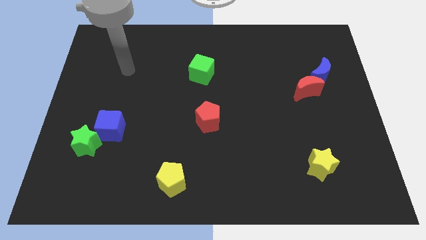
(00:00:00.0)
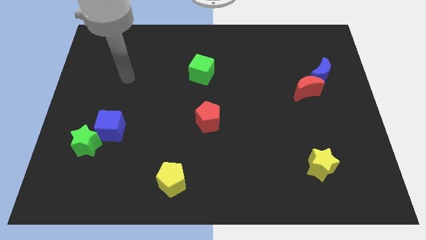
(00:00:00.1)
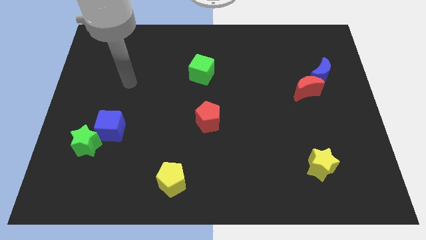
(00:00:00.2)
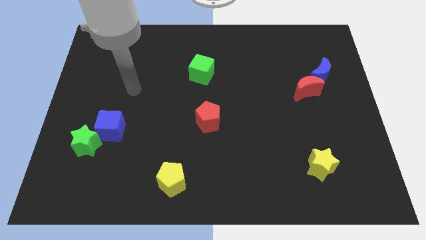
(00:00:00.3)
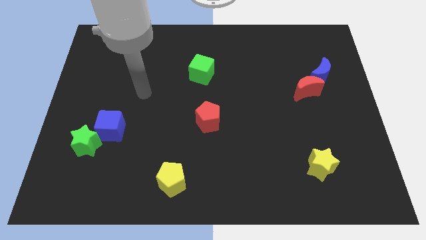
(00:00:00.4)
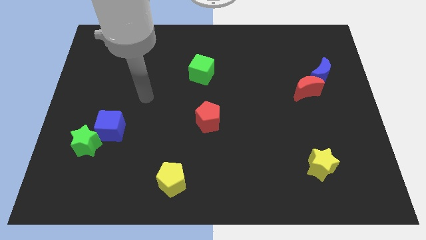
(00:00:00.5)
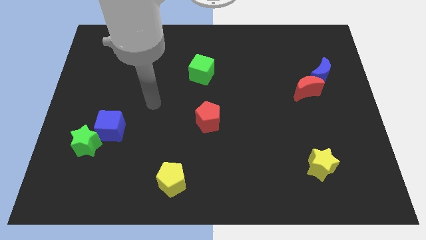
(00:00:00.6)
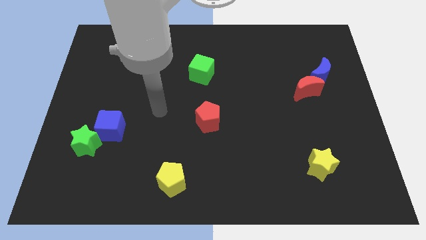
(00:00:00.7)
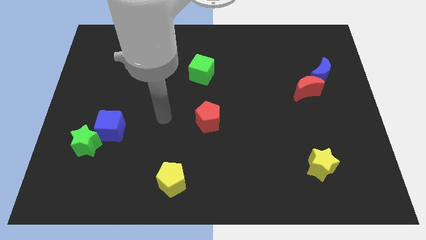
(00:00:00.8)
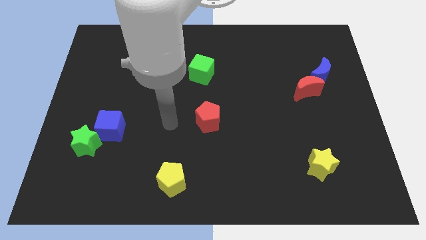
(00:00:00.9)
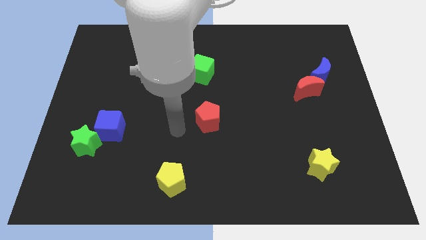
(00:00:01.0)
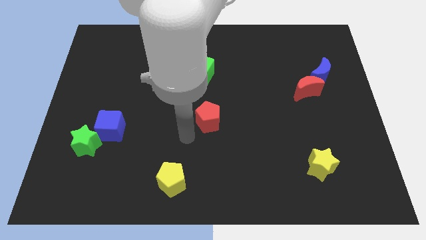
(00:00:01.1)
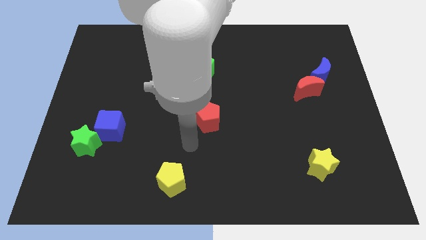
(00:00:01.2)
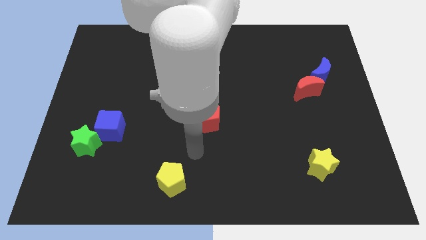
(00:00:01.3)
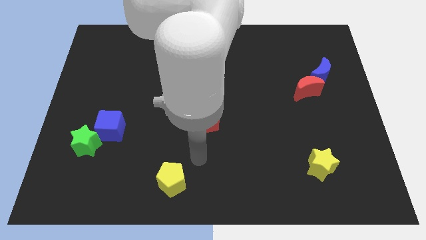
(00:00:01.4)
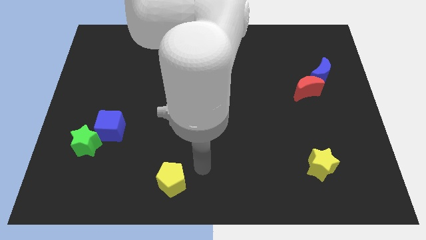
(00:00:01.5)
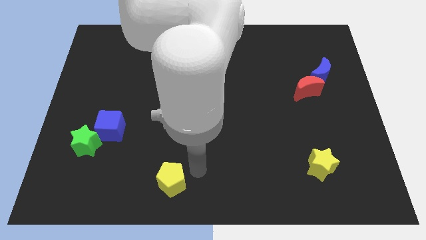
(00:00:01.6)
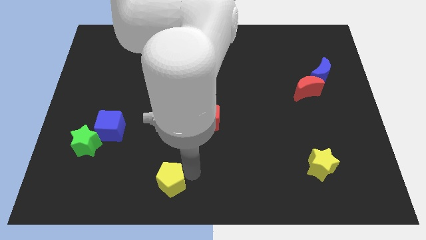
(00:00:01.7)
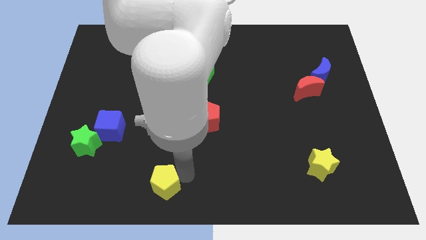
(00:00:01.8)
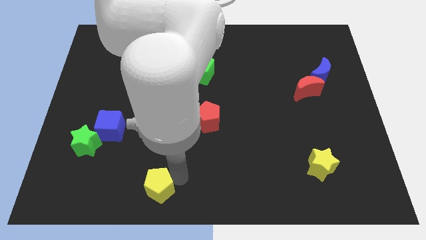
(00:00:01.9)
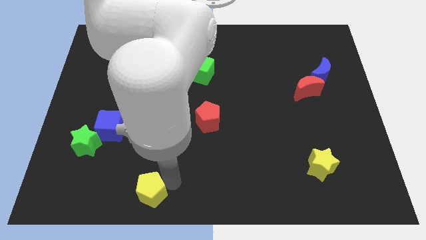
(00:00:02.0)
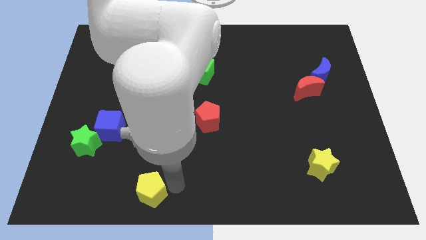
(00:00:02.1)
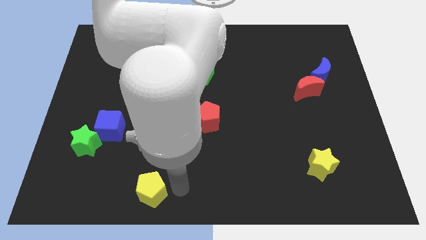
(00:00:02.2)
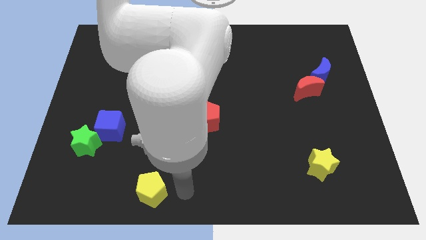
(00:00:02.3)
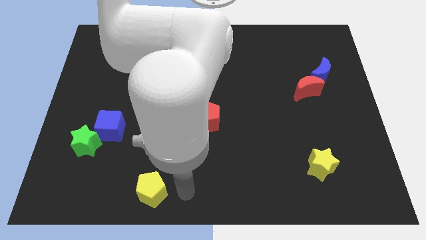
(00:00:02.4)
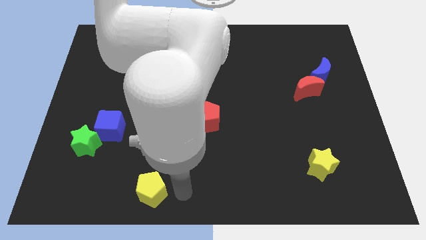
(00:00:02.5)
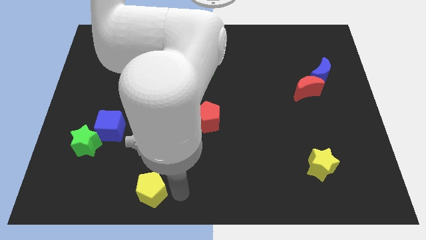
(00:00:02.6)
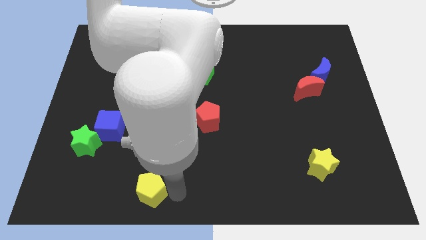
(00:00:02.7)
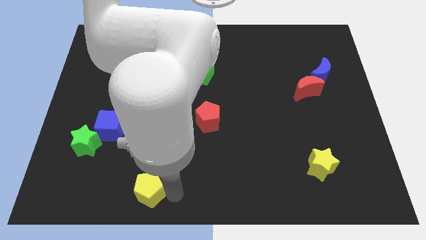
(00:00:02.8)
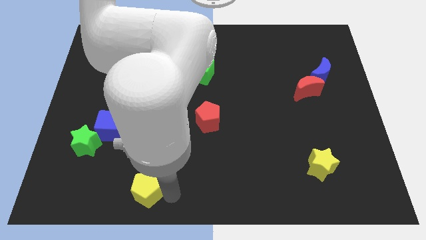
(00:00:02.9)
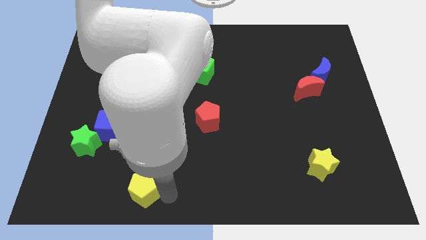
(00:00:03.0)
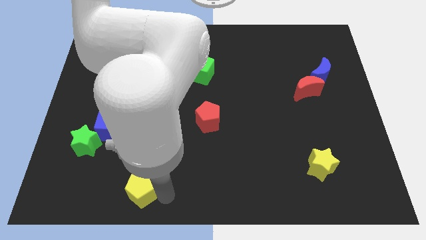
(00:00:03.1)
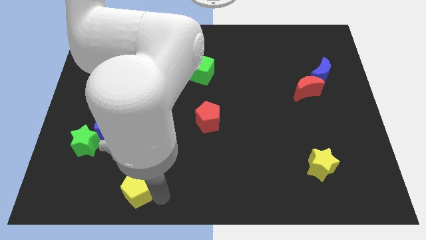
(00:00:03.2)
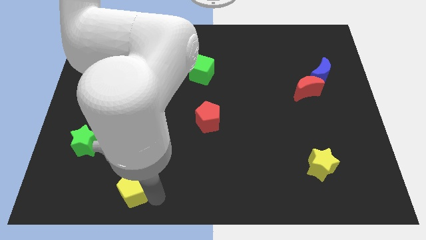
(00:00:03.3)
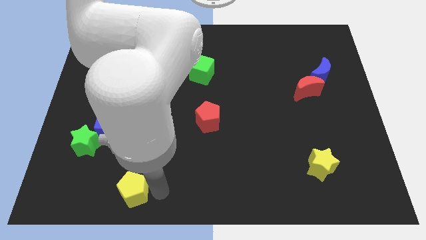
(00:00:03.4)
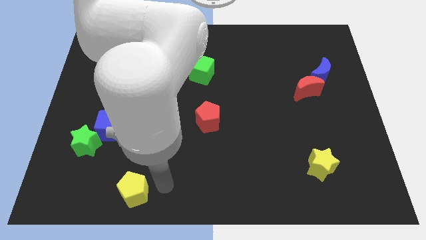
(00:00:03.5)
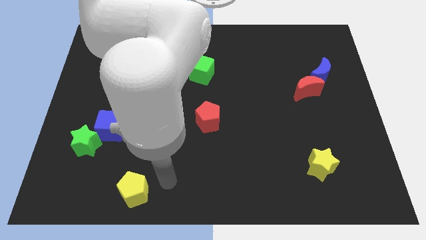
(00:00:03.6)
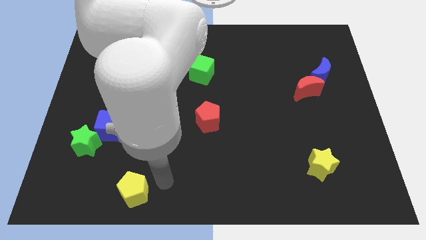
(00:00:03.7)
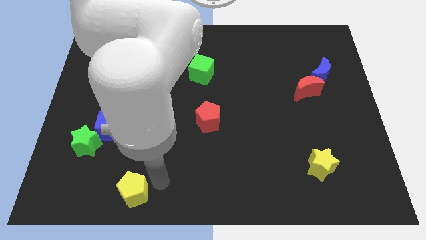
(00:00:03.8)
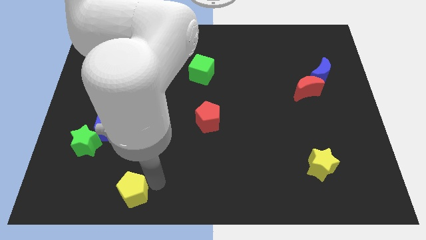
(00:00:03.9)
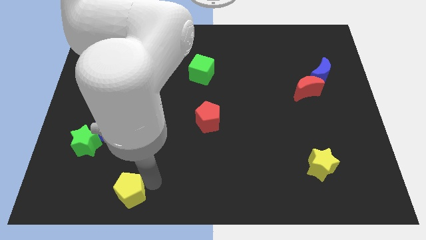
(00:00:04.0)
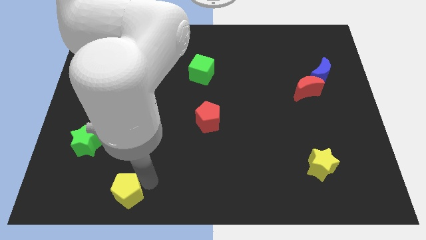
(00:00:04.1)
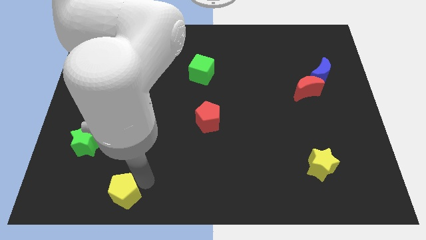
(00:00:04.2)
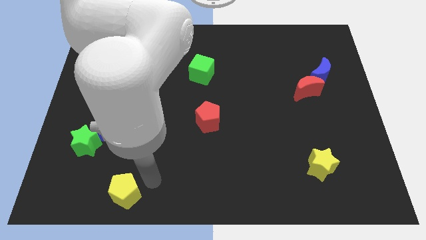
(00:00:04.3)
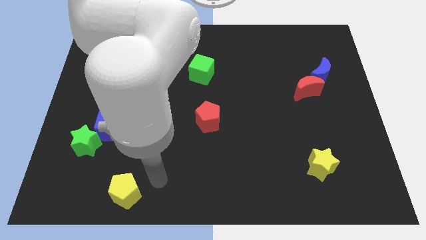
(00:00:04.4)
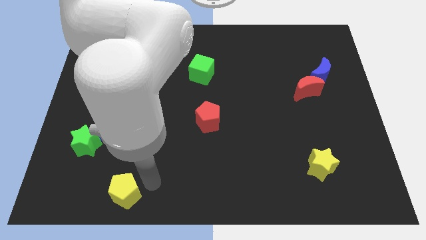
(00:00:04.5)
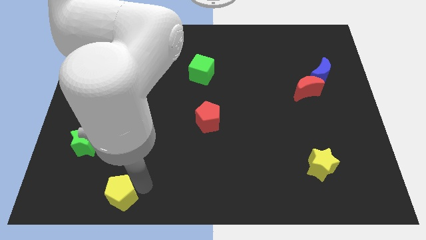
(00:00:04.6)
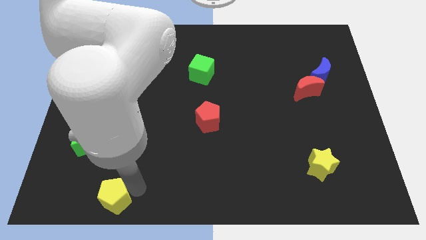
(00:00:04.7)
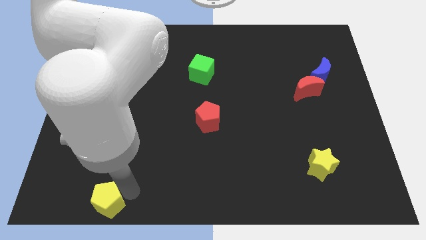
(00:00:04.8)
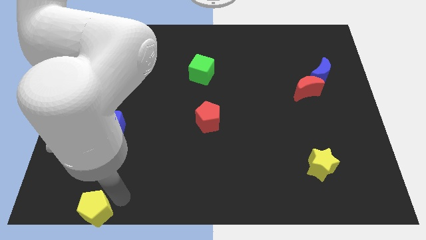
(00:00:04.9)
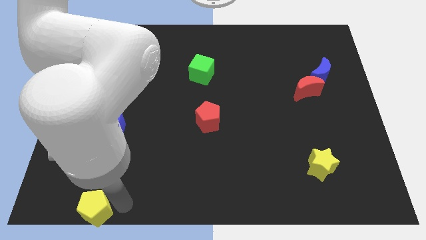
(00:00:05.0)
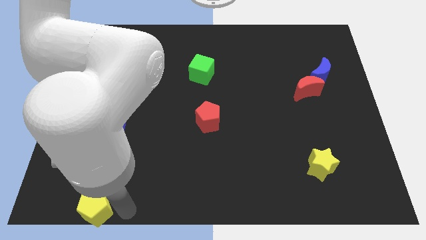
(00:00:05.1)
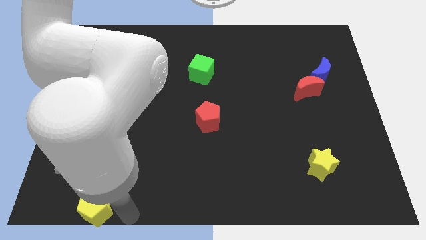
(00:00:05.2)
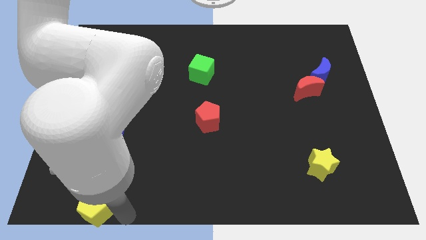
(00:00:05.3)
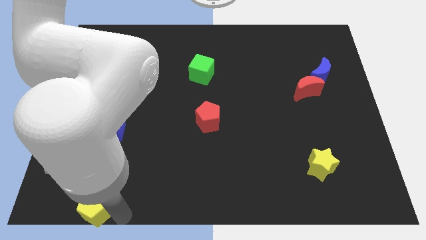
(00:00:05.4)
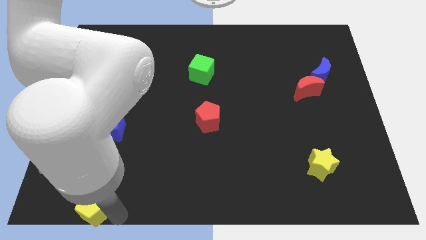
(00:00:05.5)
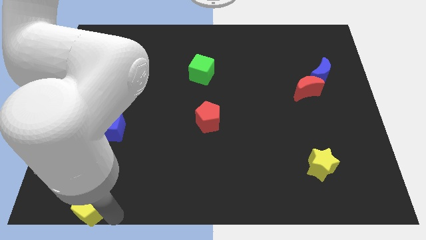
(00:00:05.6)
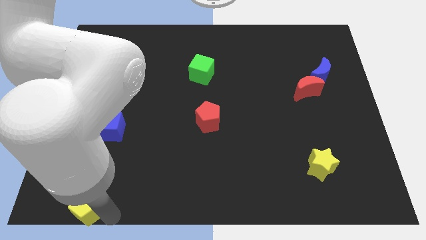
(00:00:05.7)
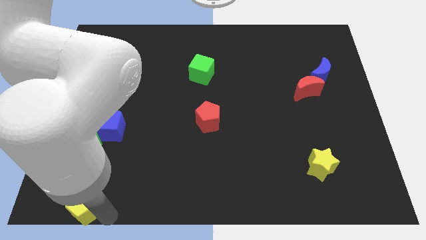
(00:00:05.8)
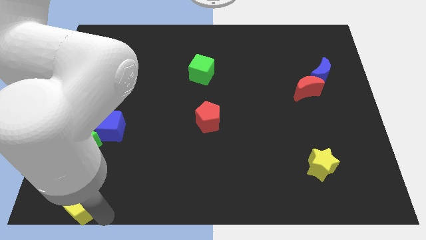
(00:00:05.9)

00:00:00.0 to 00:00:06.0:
slide the yellow pentagon to the bottom left corner

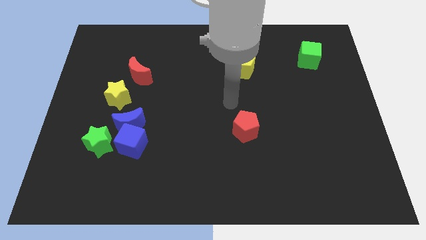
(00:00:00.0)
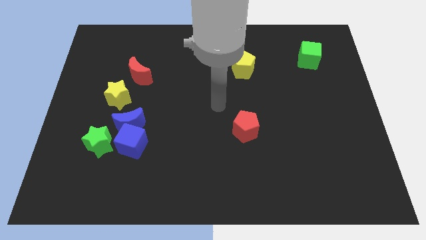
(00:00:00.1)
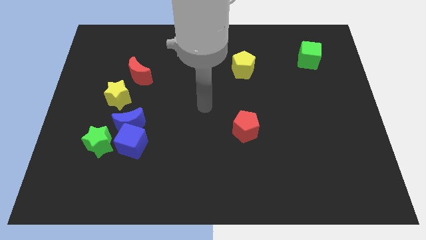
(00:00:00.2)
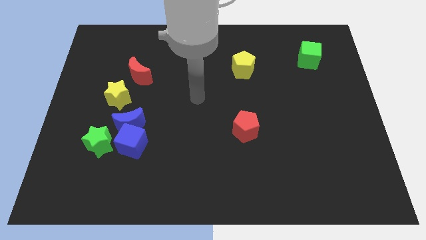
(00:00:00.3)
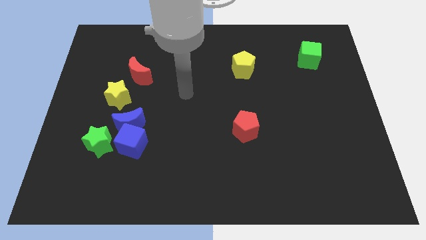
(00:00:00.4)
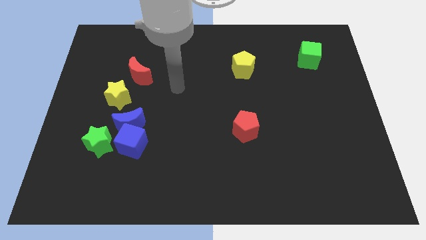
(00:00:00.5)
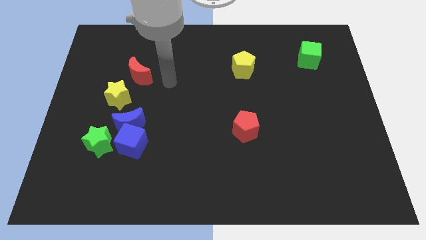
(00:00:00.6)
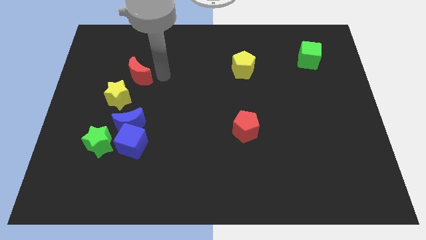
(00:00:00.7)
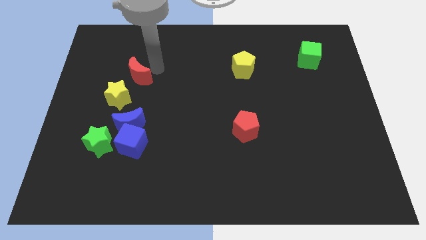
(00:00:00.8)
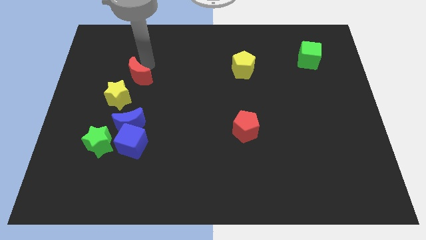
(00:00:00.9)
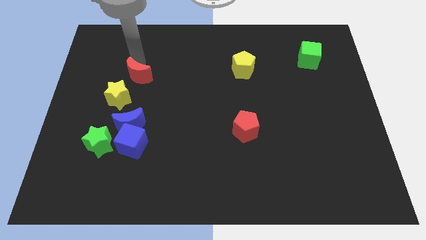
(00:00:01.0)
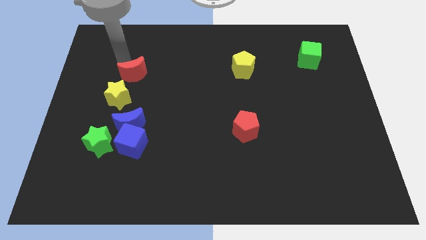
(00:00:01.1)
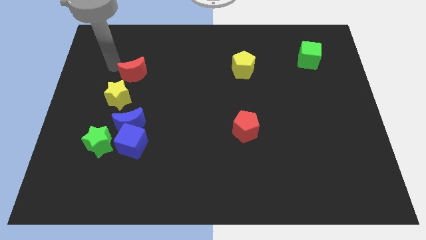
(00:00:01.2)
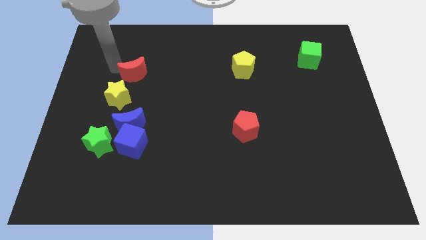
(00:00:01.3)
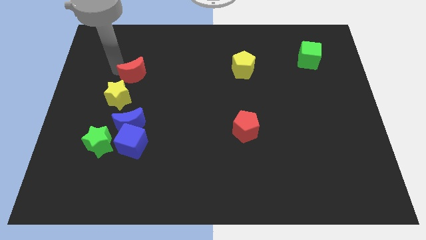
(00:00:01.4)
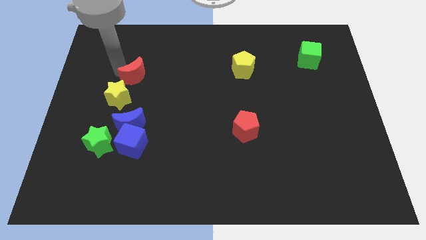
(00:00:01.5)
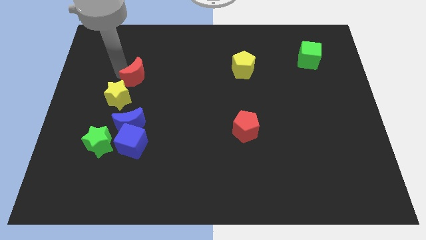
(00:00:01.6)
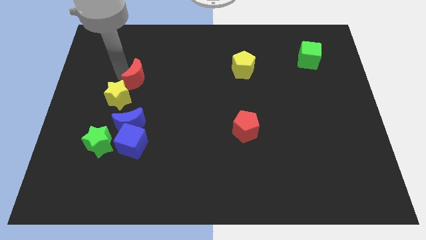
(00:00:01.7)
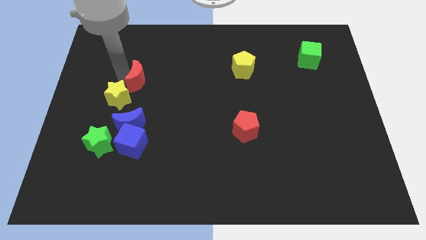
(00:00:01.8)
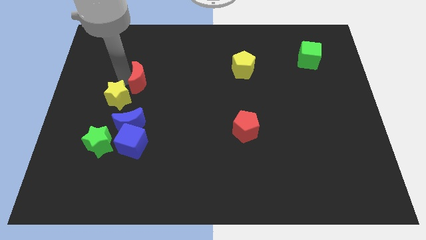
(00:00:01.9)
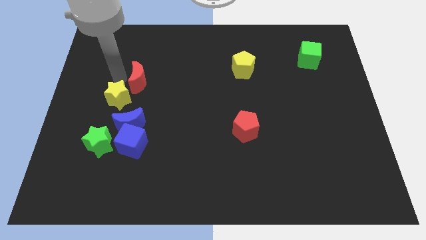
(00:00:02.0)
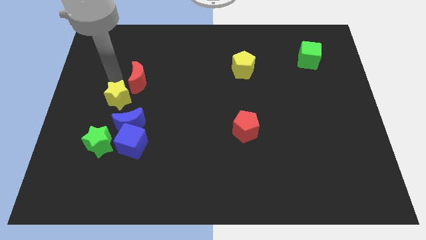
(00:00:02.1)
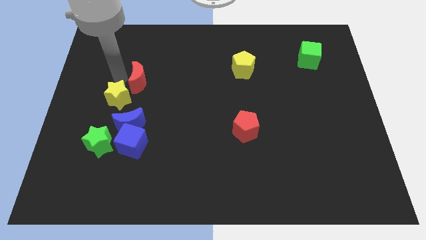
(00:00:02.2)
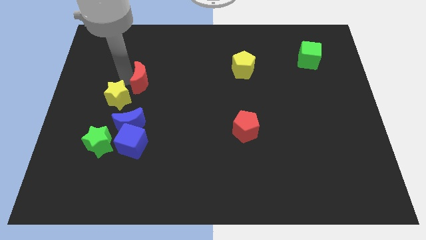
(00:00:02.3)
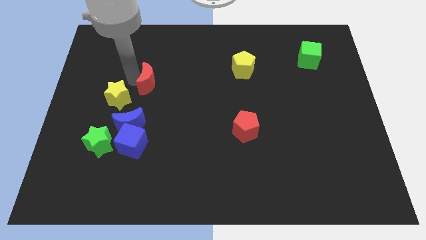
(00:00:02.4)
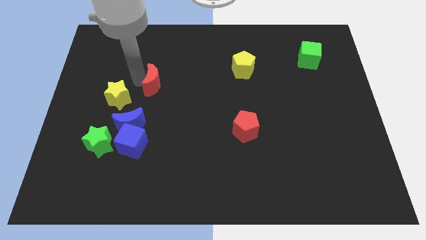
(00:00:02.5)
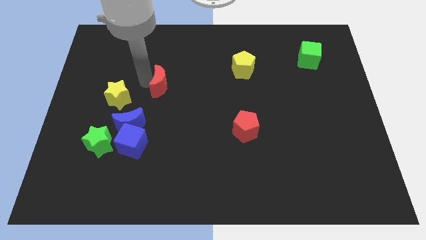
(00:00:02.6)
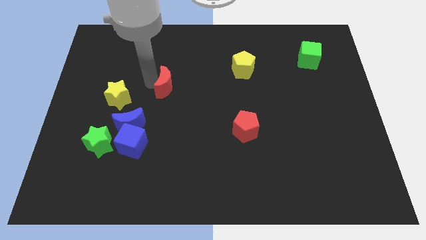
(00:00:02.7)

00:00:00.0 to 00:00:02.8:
put the red moon to the middle
